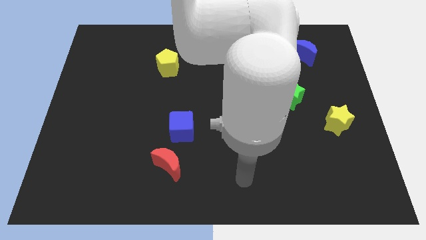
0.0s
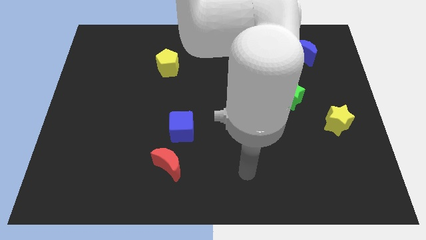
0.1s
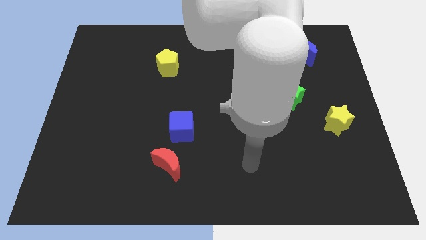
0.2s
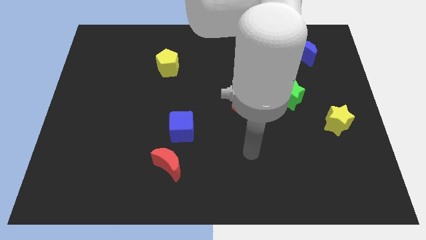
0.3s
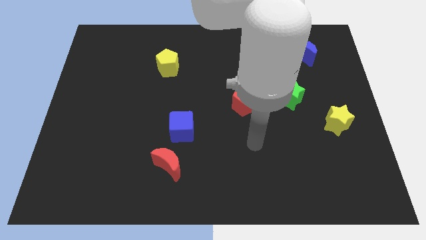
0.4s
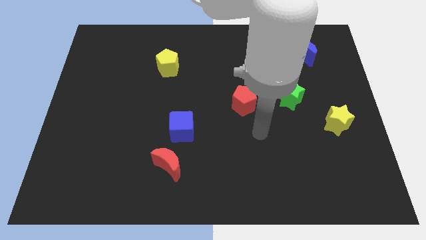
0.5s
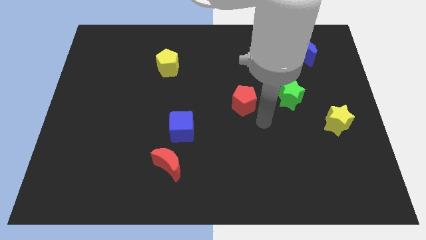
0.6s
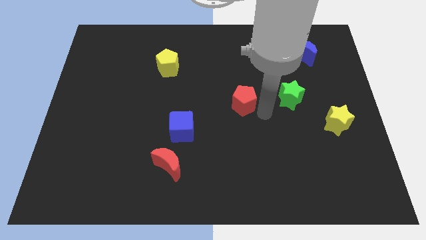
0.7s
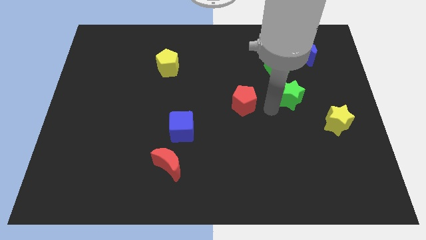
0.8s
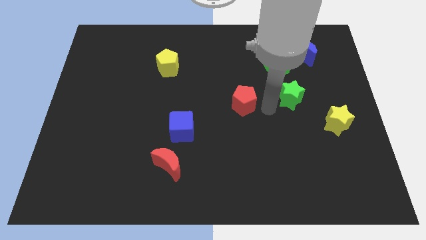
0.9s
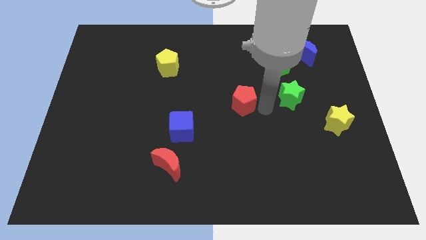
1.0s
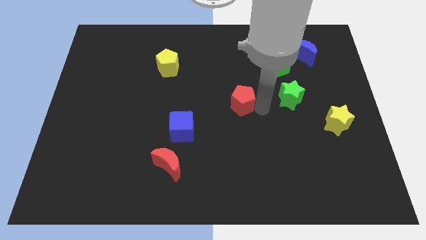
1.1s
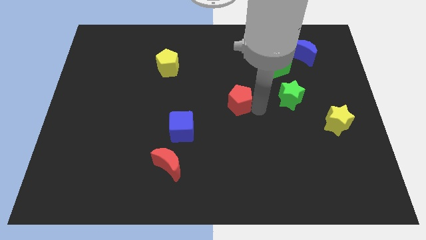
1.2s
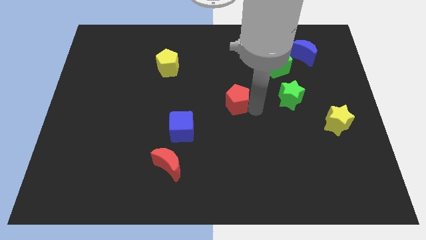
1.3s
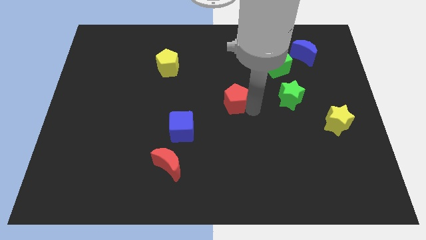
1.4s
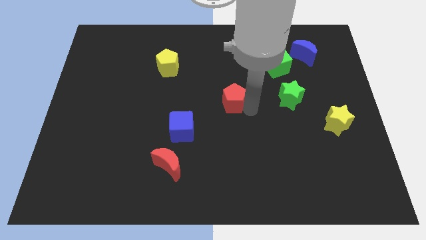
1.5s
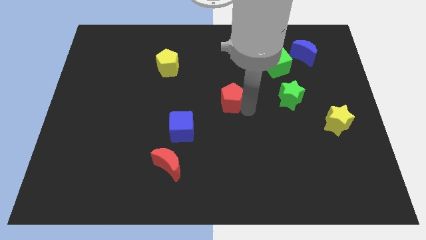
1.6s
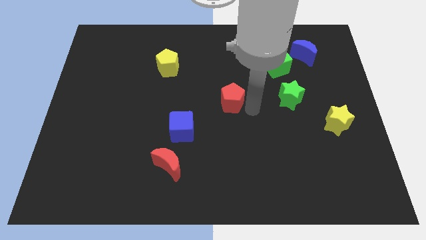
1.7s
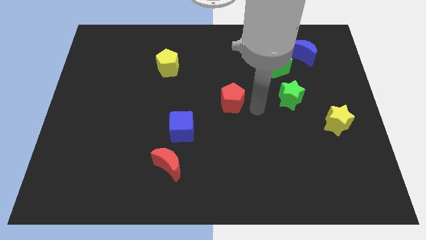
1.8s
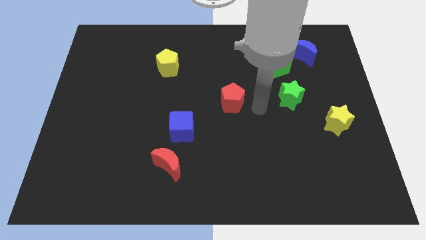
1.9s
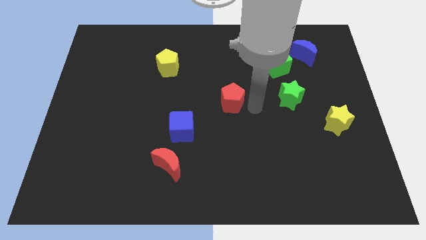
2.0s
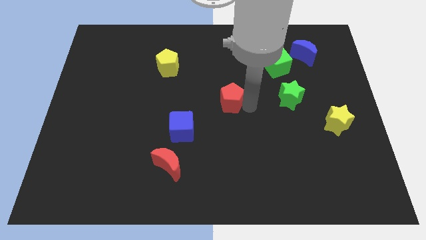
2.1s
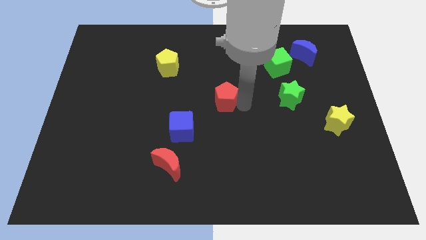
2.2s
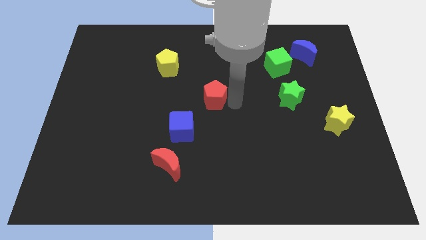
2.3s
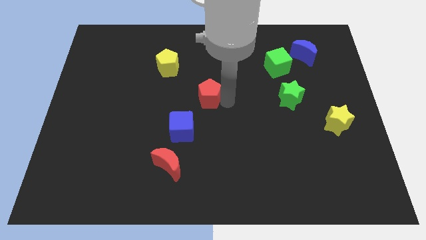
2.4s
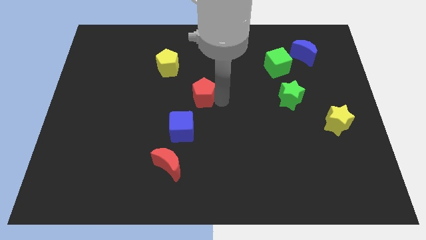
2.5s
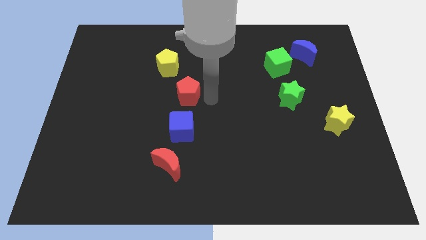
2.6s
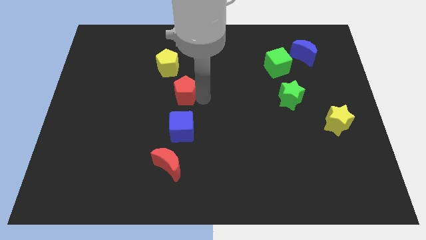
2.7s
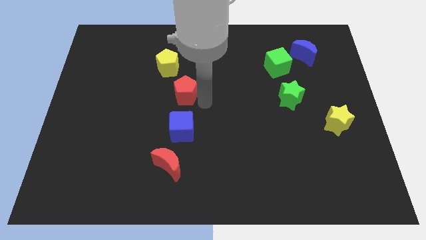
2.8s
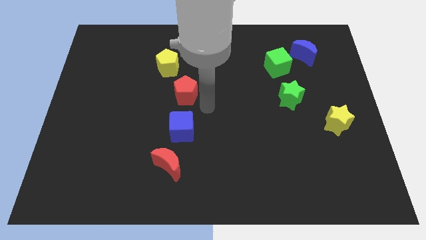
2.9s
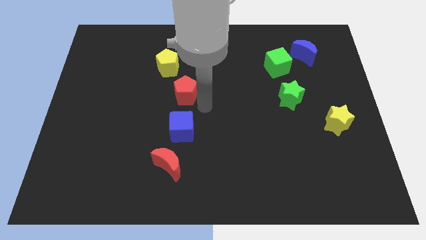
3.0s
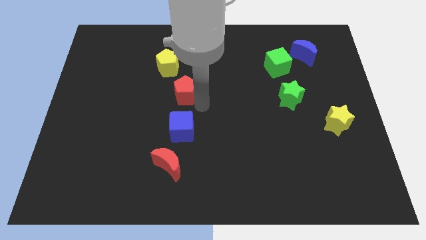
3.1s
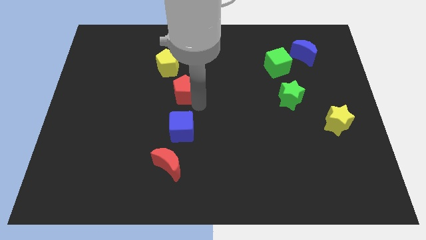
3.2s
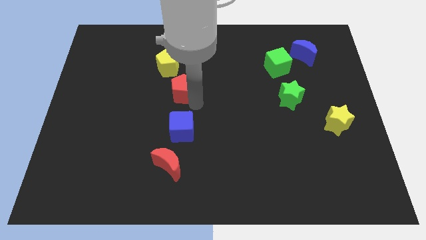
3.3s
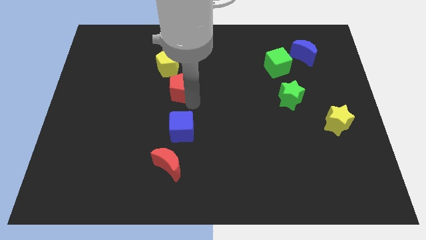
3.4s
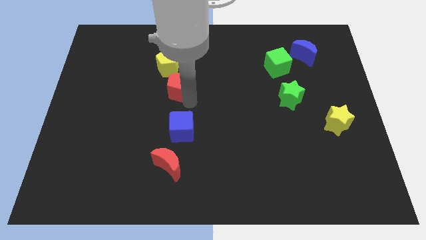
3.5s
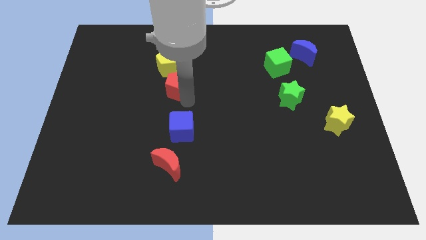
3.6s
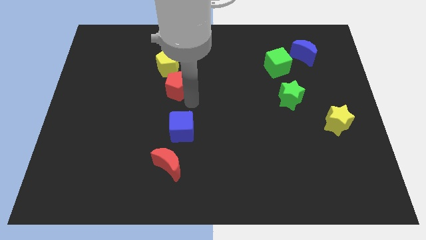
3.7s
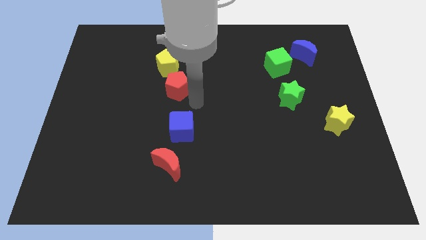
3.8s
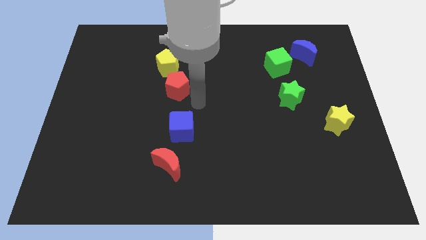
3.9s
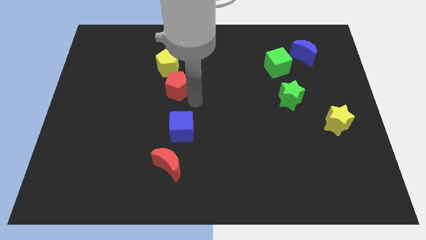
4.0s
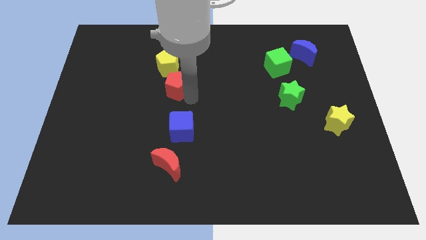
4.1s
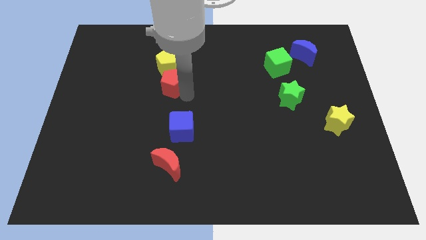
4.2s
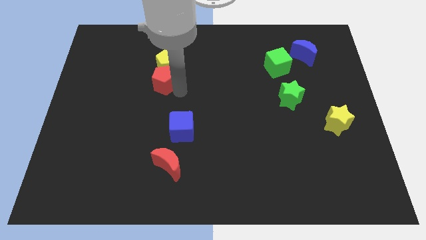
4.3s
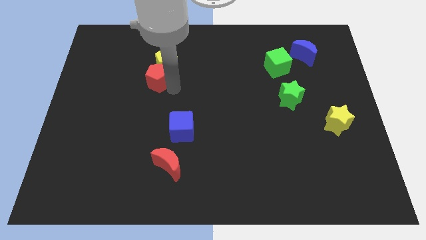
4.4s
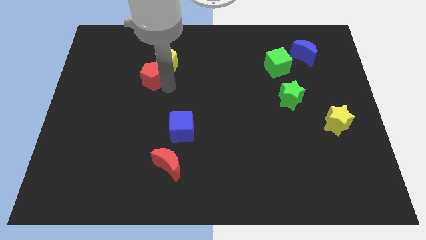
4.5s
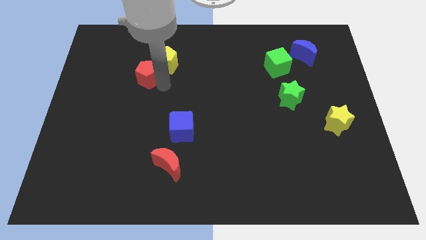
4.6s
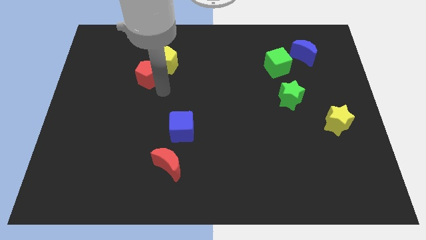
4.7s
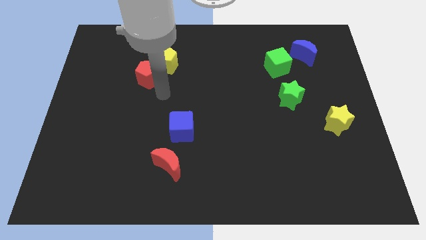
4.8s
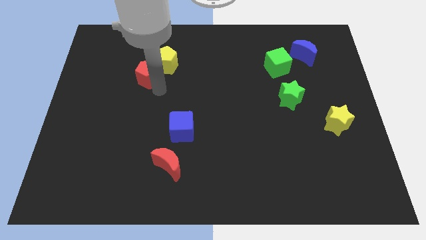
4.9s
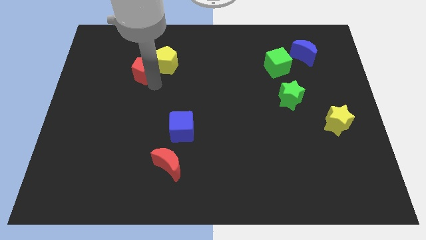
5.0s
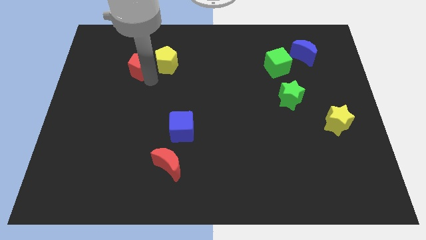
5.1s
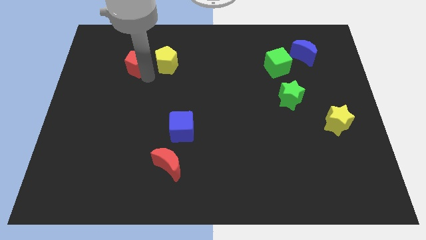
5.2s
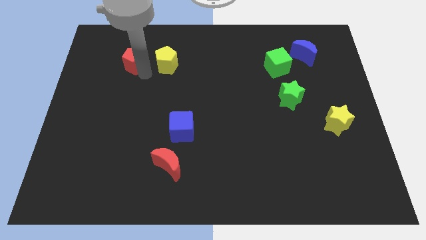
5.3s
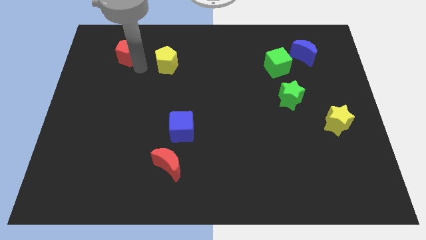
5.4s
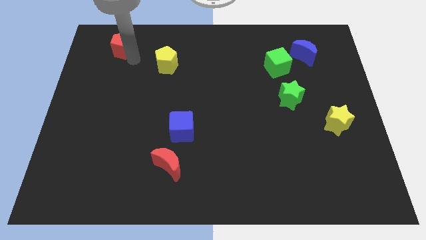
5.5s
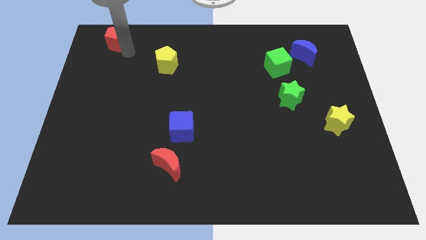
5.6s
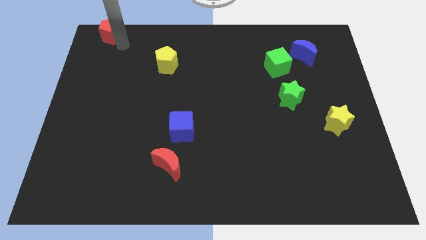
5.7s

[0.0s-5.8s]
put the red pentagon to the top left corner

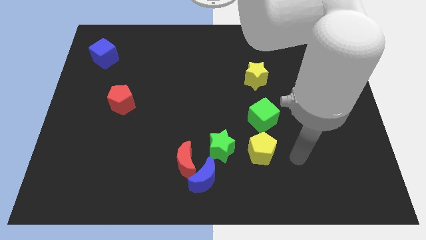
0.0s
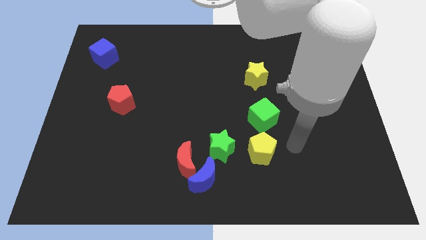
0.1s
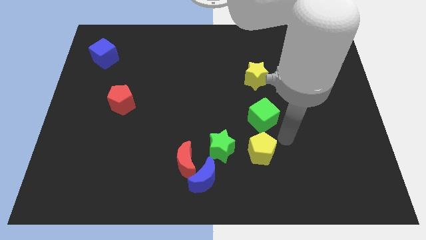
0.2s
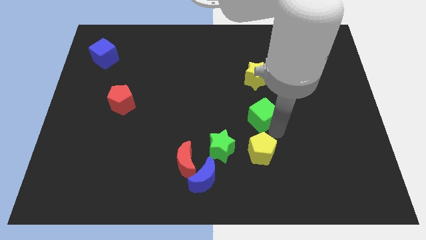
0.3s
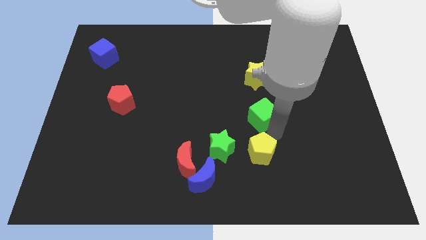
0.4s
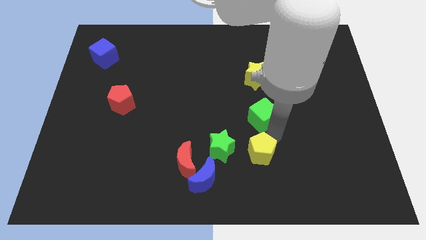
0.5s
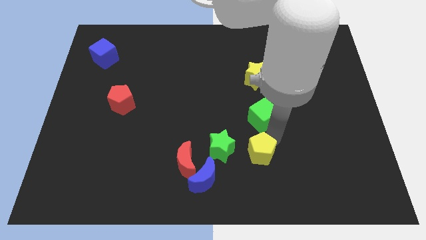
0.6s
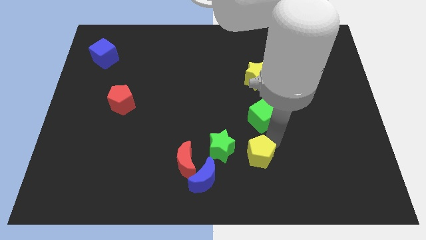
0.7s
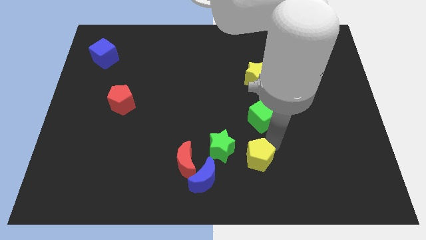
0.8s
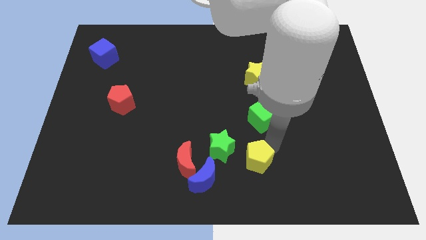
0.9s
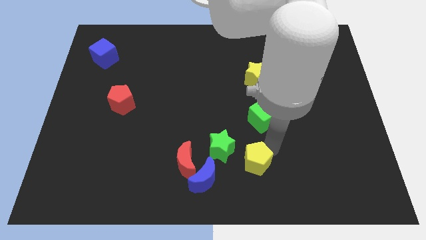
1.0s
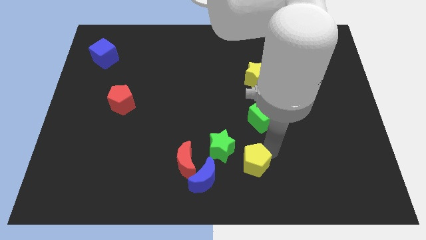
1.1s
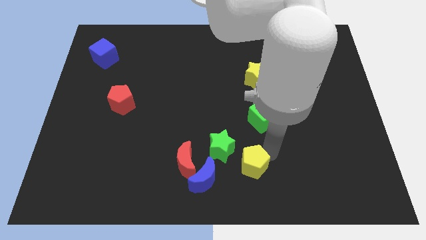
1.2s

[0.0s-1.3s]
move the yellow pentagon to the bottom side
